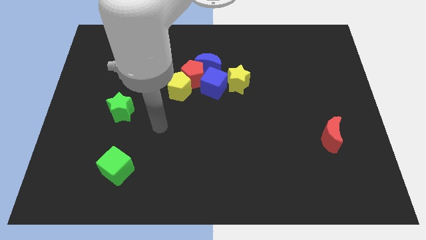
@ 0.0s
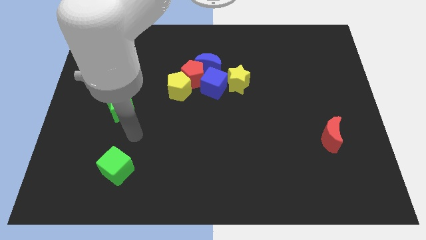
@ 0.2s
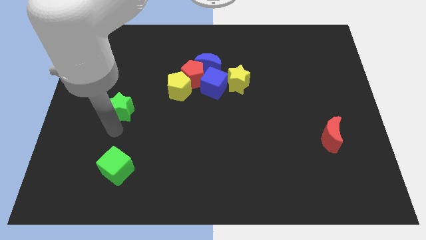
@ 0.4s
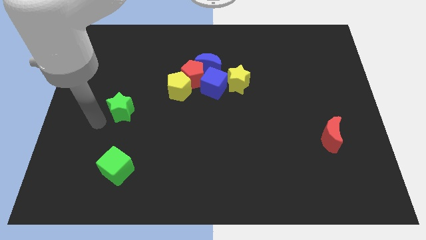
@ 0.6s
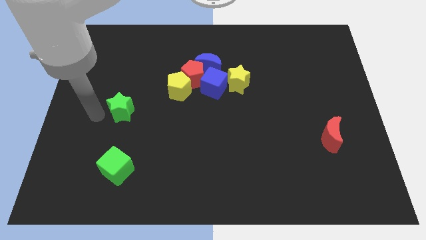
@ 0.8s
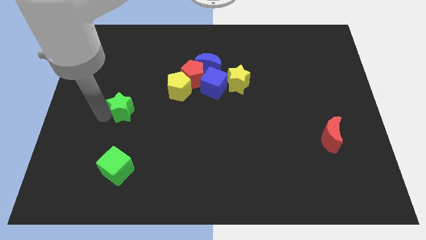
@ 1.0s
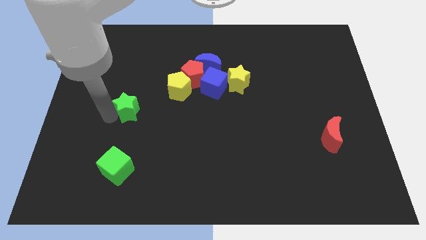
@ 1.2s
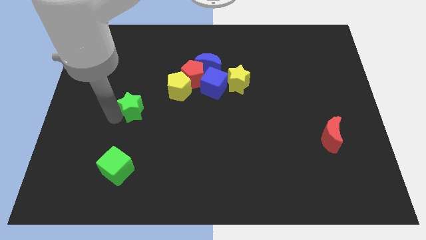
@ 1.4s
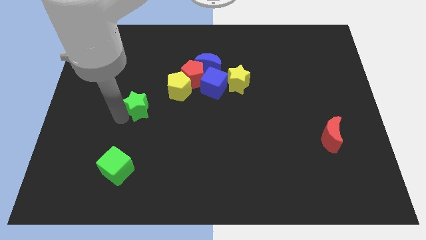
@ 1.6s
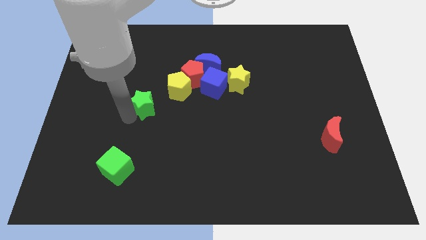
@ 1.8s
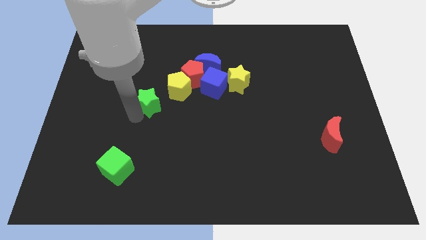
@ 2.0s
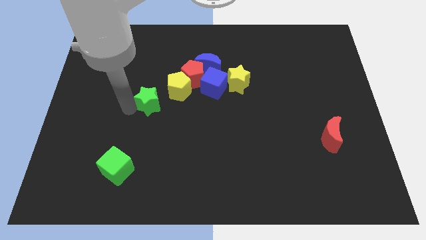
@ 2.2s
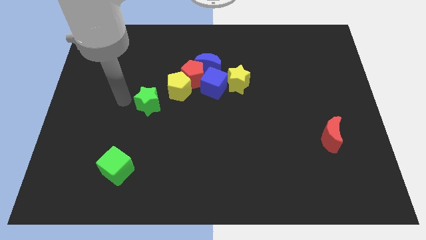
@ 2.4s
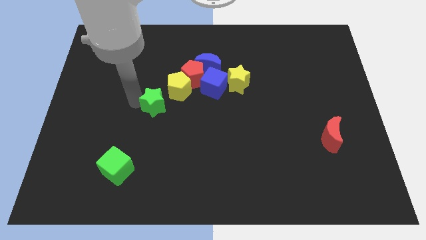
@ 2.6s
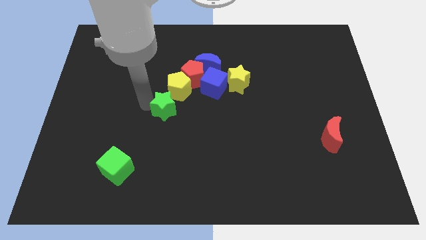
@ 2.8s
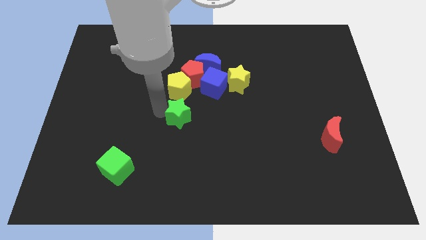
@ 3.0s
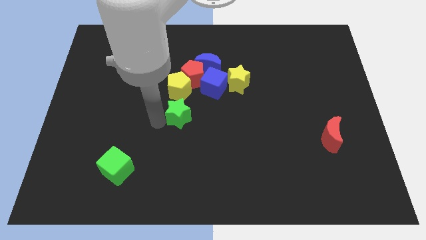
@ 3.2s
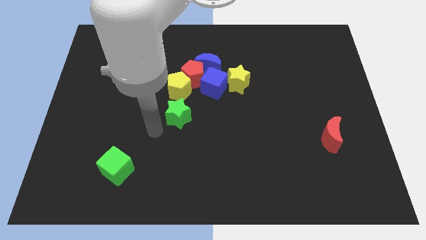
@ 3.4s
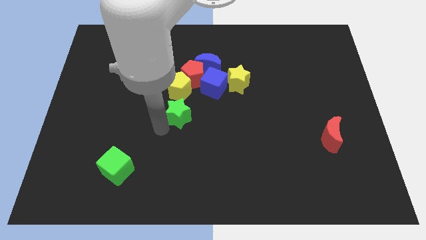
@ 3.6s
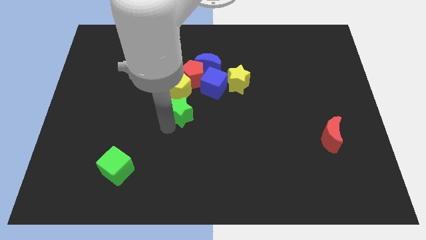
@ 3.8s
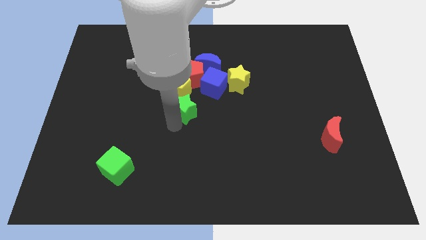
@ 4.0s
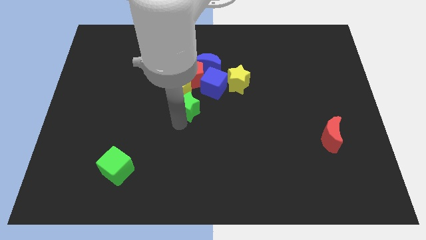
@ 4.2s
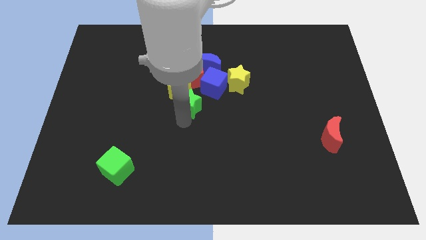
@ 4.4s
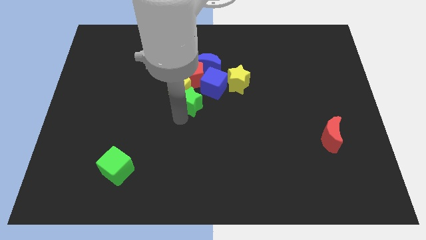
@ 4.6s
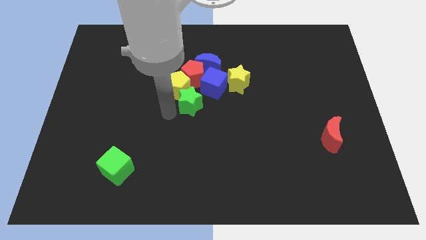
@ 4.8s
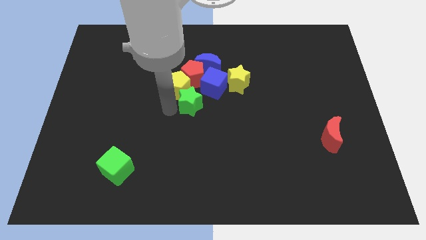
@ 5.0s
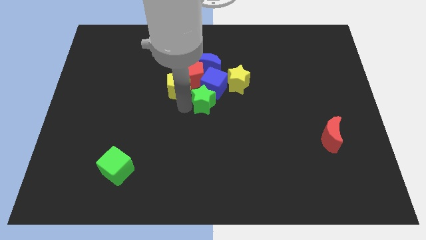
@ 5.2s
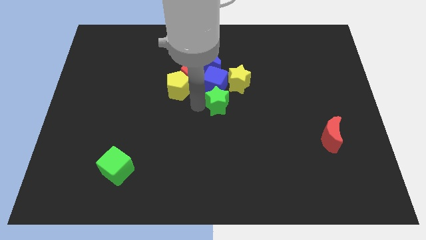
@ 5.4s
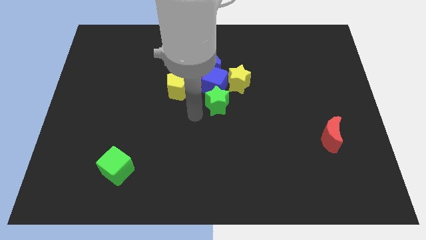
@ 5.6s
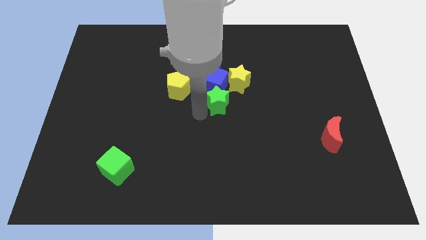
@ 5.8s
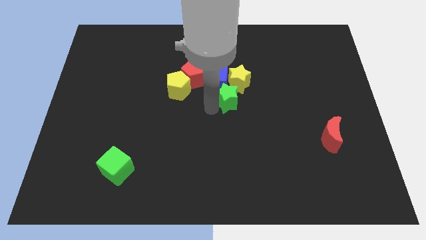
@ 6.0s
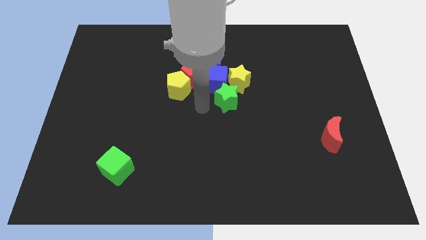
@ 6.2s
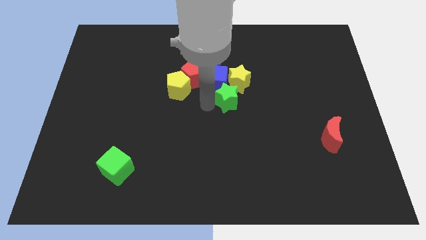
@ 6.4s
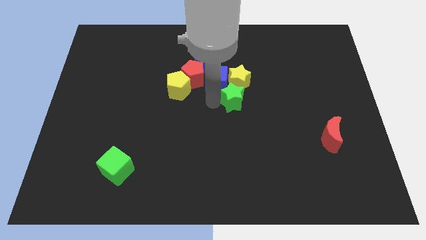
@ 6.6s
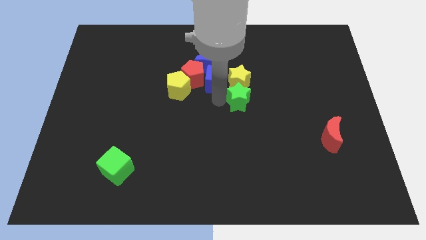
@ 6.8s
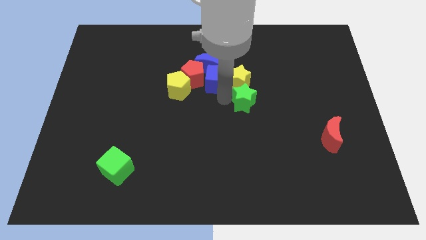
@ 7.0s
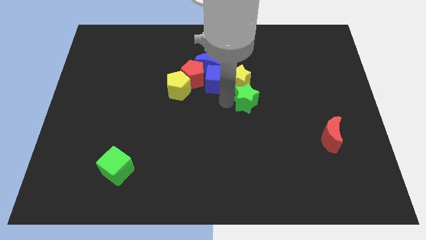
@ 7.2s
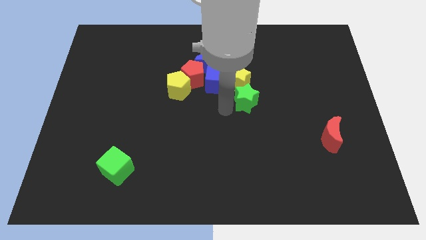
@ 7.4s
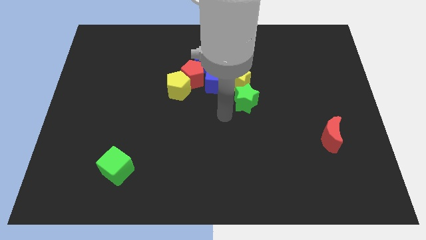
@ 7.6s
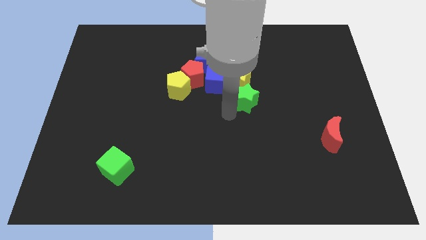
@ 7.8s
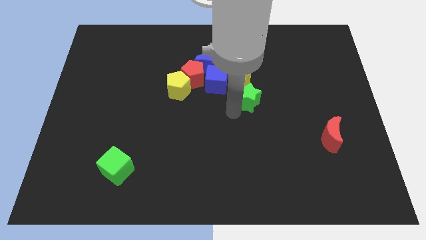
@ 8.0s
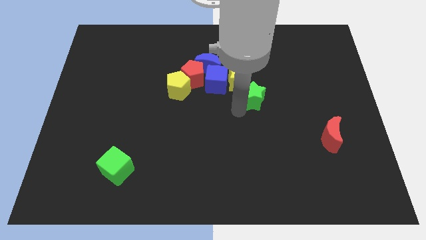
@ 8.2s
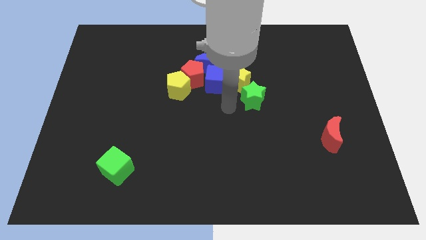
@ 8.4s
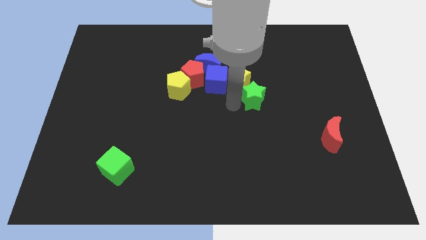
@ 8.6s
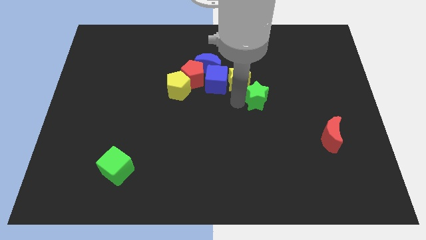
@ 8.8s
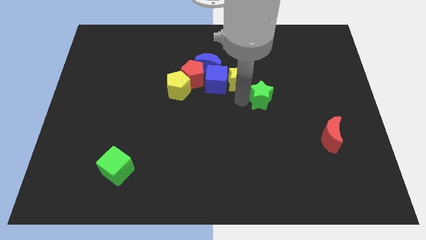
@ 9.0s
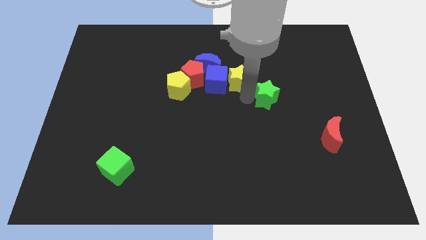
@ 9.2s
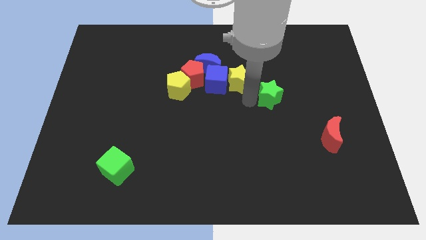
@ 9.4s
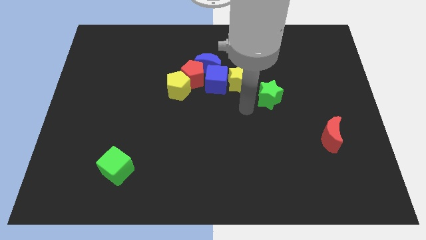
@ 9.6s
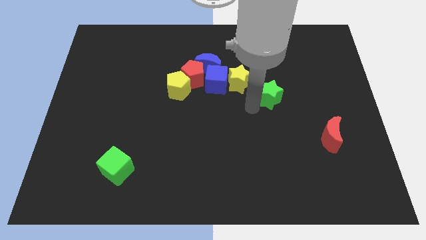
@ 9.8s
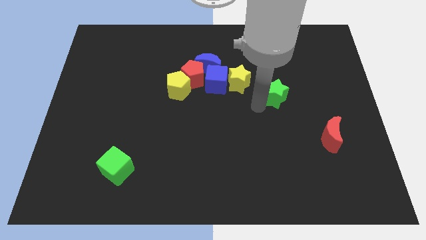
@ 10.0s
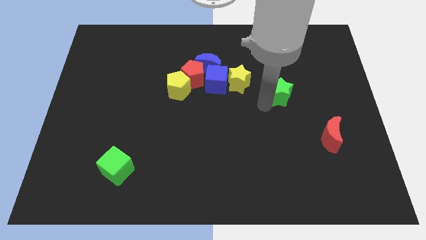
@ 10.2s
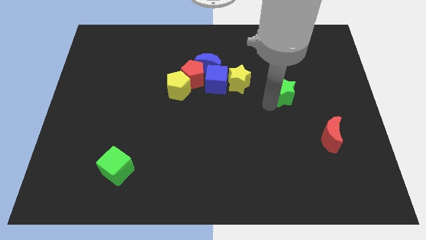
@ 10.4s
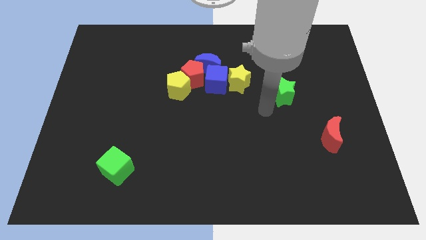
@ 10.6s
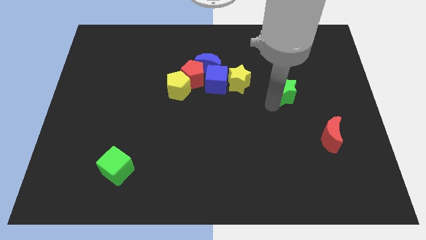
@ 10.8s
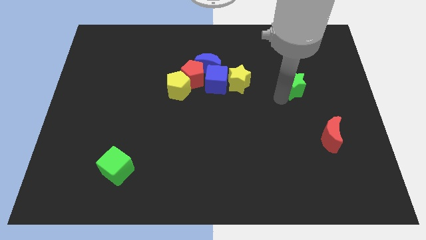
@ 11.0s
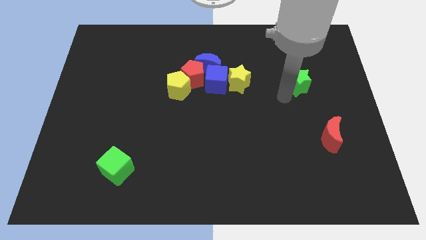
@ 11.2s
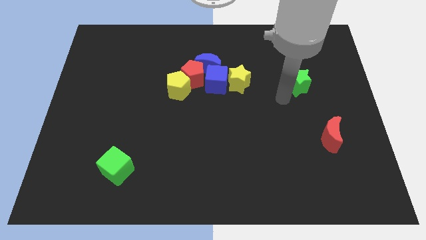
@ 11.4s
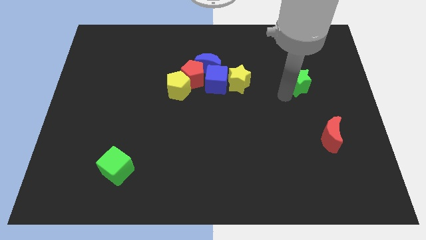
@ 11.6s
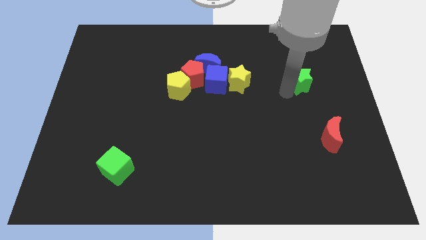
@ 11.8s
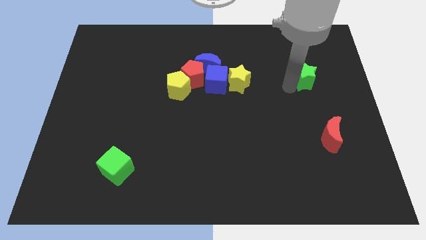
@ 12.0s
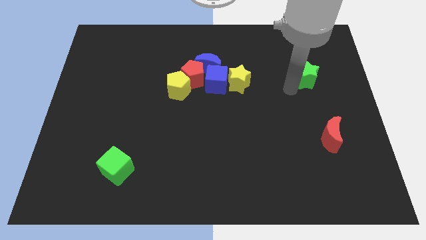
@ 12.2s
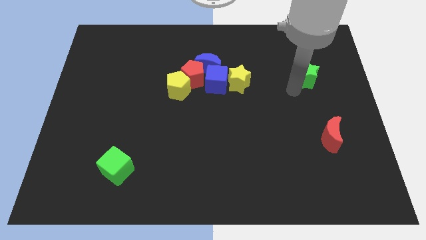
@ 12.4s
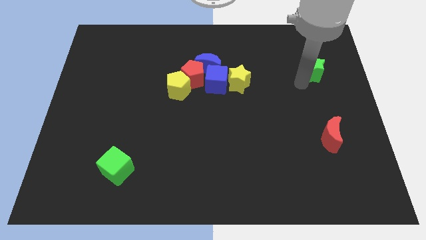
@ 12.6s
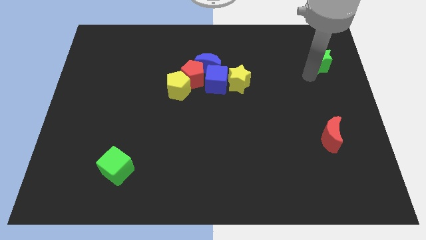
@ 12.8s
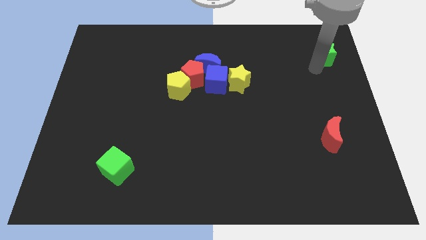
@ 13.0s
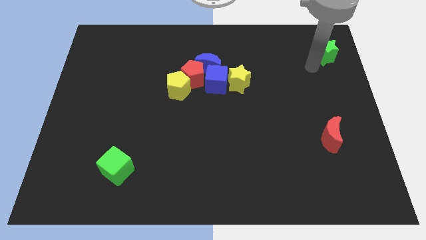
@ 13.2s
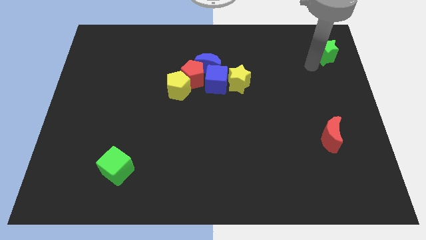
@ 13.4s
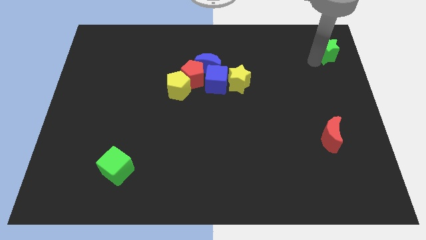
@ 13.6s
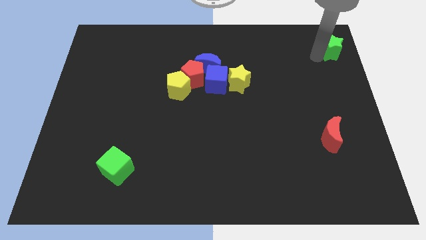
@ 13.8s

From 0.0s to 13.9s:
slide the green star to the top right
